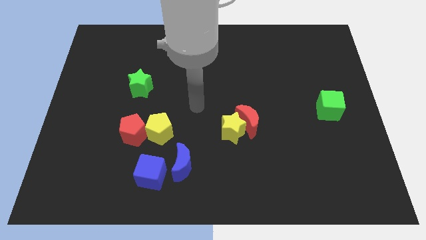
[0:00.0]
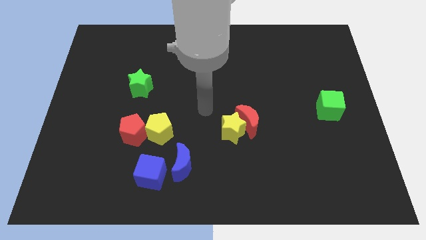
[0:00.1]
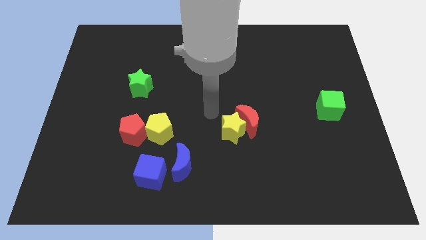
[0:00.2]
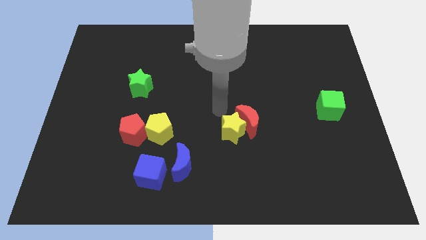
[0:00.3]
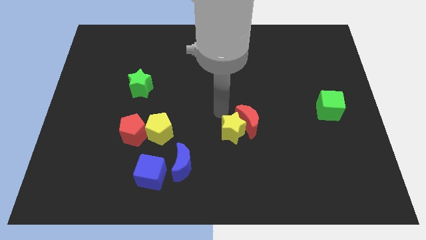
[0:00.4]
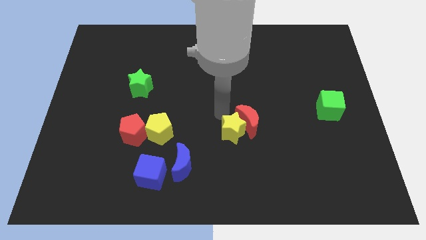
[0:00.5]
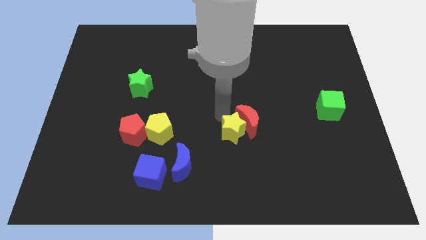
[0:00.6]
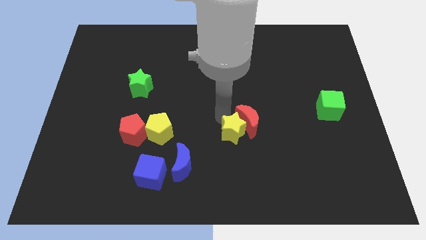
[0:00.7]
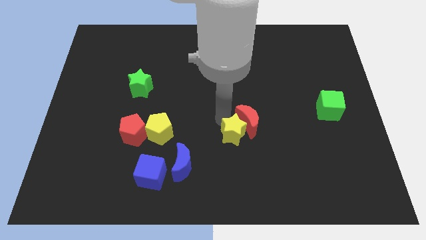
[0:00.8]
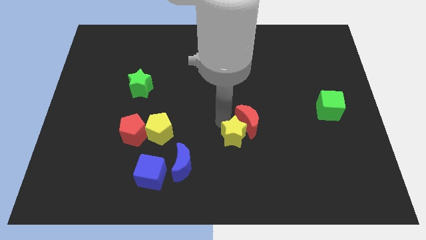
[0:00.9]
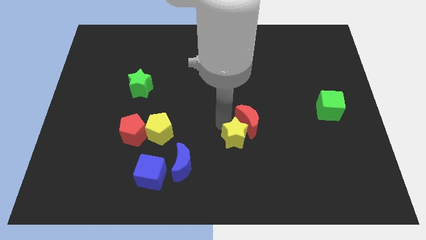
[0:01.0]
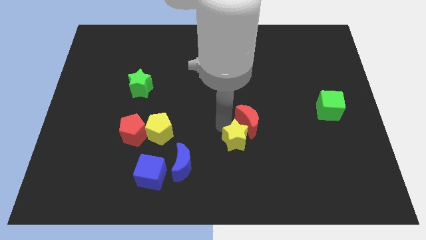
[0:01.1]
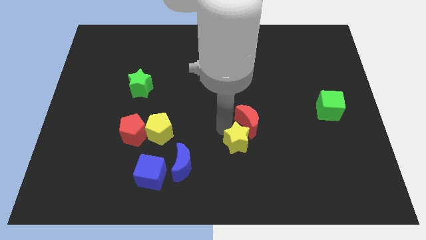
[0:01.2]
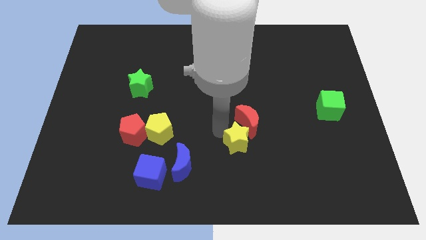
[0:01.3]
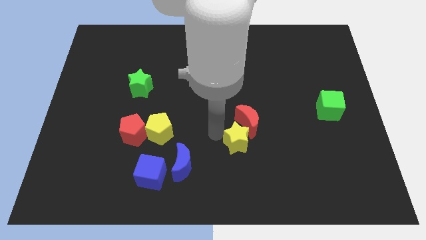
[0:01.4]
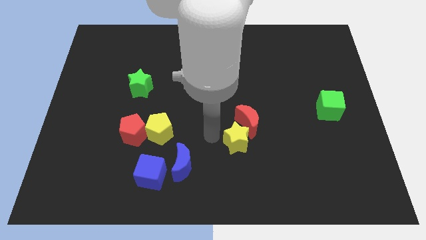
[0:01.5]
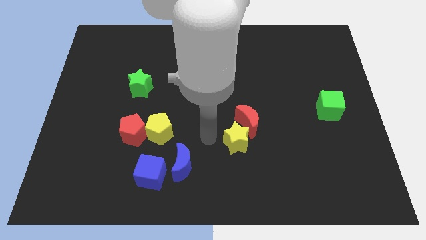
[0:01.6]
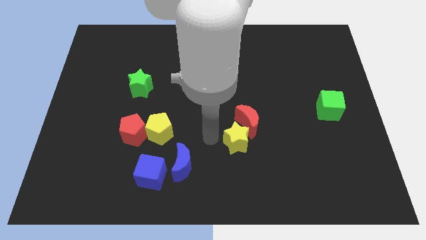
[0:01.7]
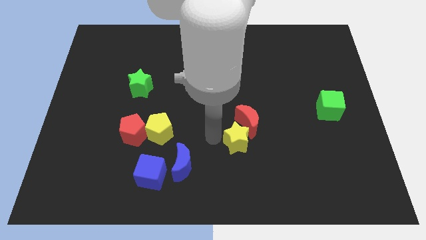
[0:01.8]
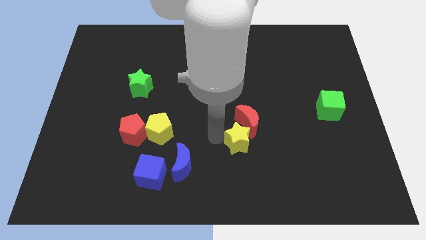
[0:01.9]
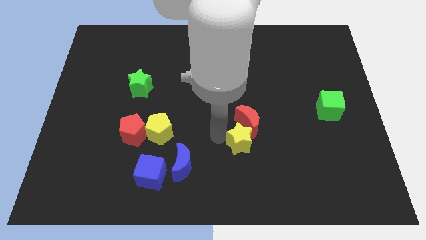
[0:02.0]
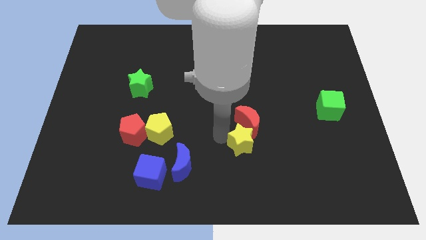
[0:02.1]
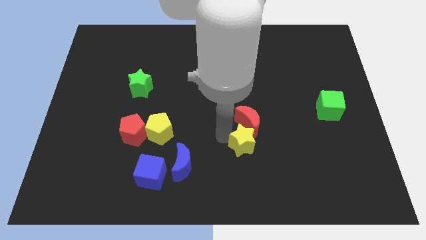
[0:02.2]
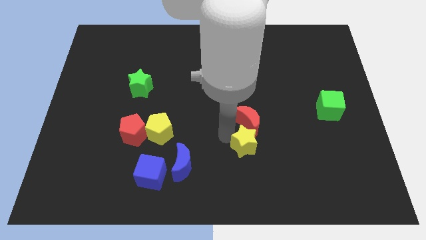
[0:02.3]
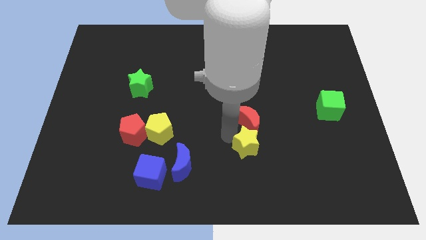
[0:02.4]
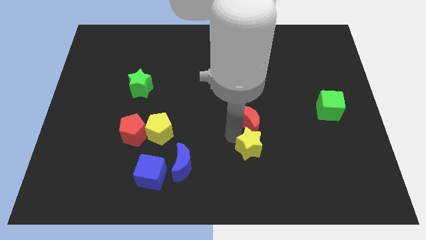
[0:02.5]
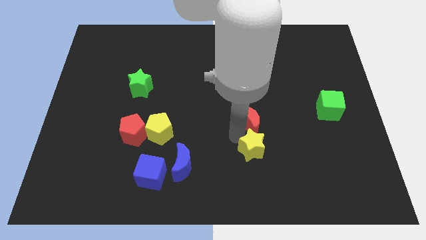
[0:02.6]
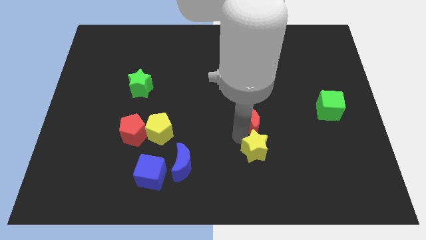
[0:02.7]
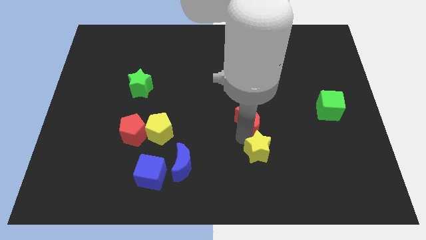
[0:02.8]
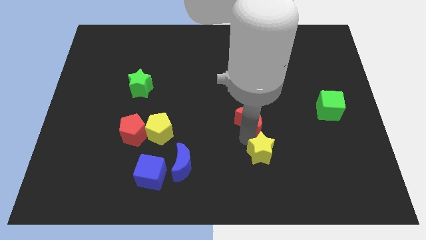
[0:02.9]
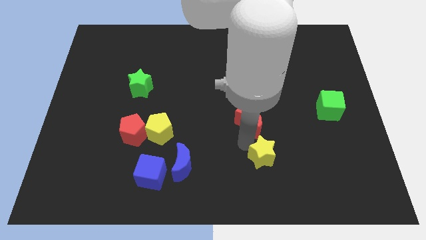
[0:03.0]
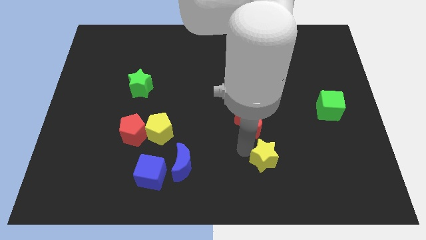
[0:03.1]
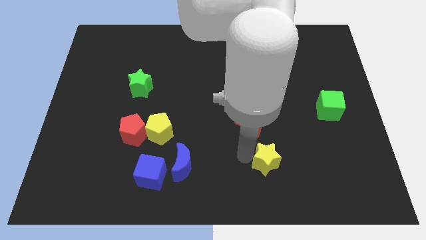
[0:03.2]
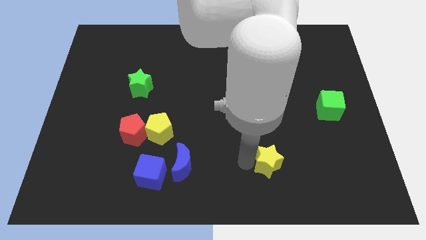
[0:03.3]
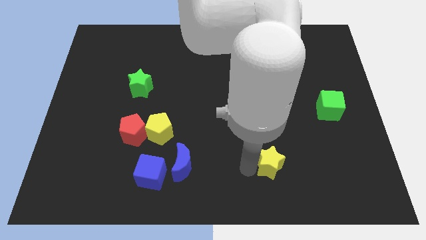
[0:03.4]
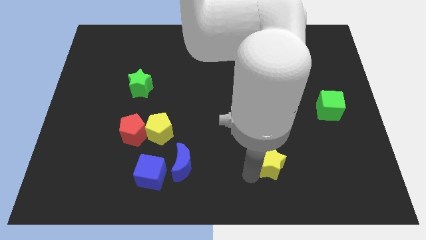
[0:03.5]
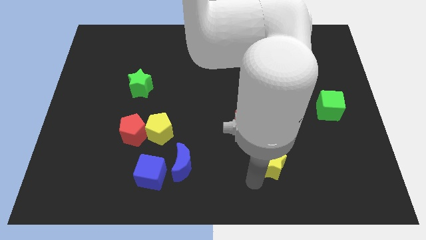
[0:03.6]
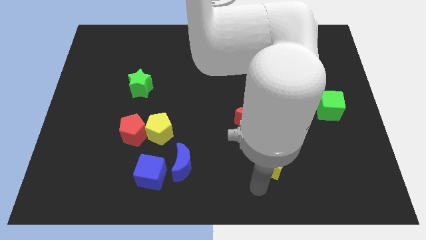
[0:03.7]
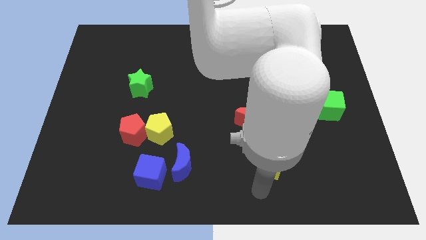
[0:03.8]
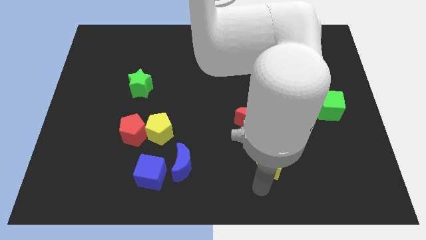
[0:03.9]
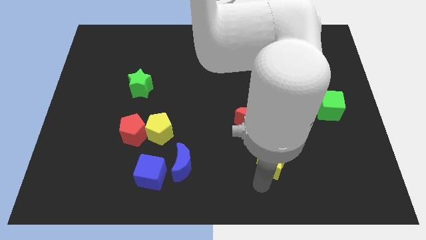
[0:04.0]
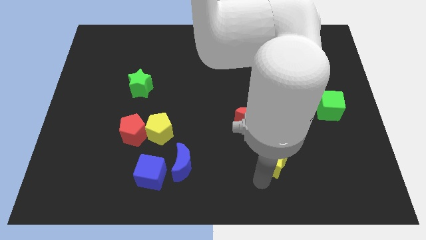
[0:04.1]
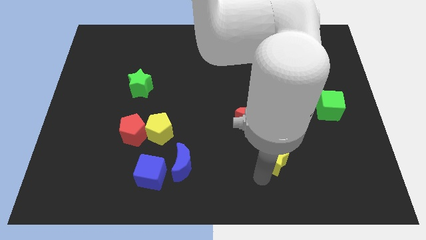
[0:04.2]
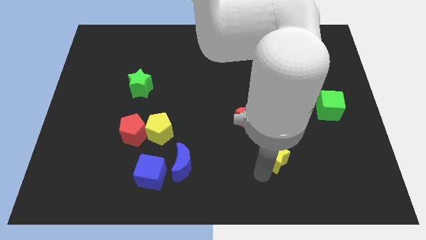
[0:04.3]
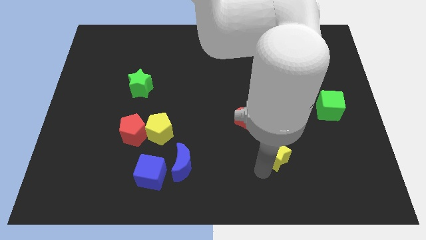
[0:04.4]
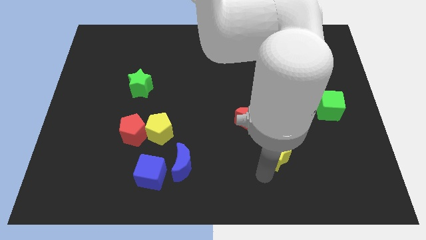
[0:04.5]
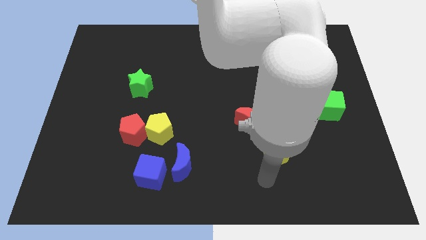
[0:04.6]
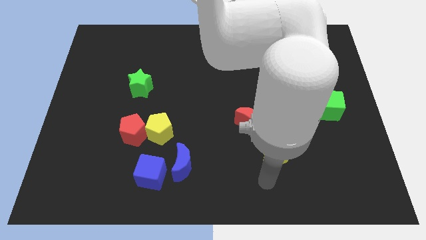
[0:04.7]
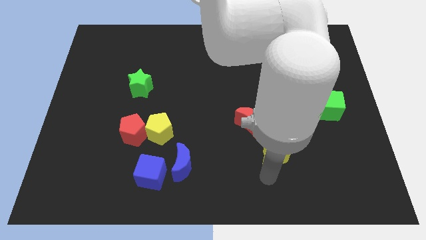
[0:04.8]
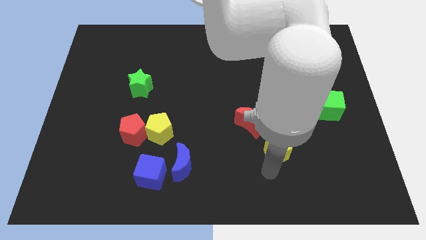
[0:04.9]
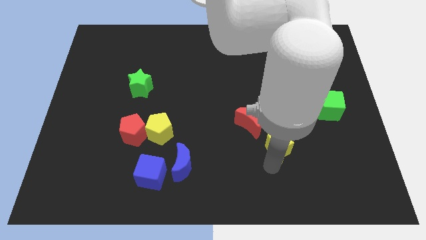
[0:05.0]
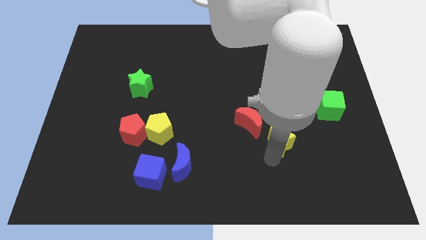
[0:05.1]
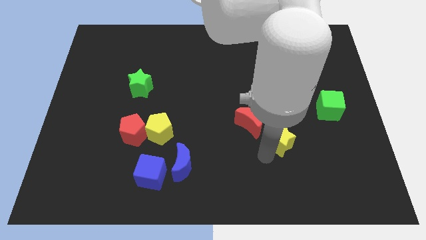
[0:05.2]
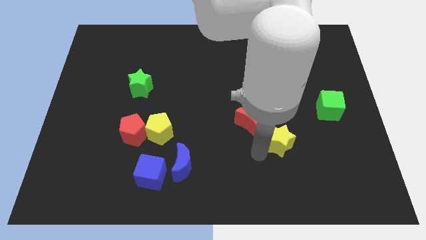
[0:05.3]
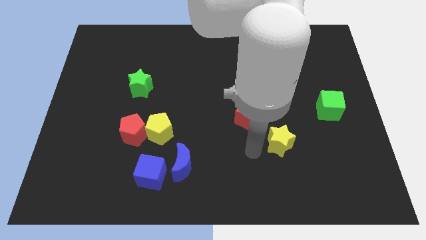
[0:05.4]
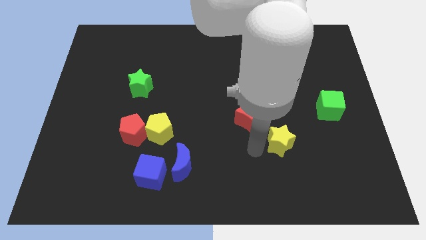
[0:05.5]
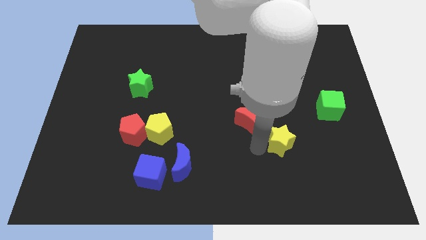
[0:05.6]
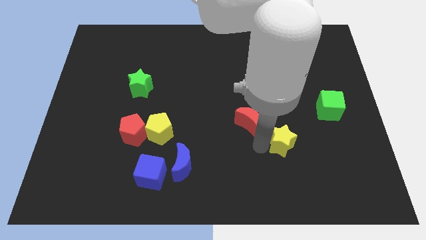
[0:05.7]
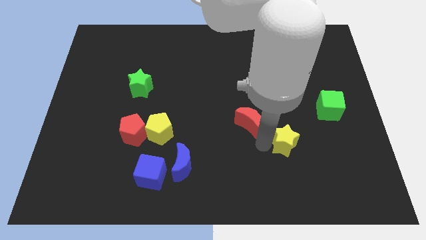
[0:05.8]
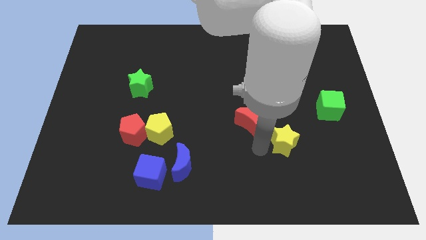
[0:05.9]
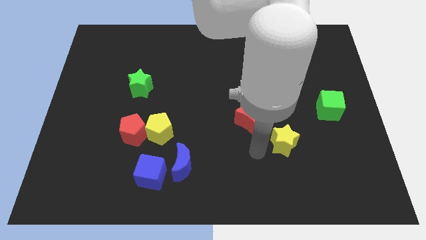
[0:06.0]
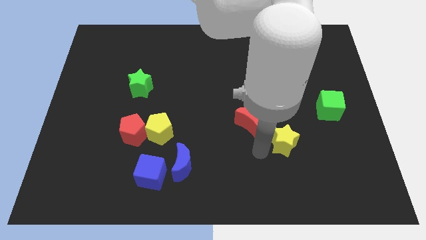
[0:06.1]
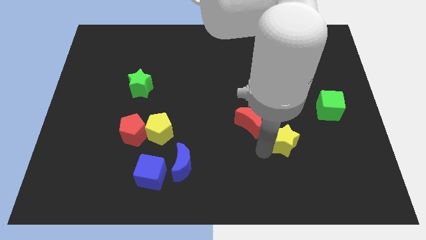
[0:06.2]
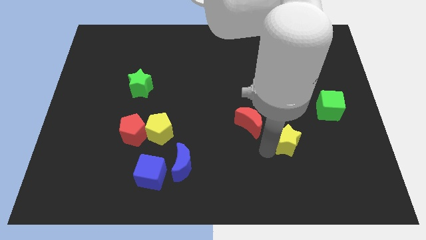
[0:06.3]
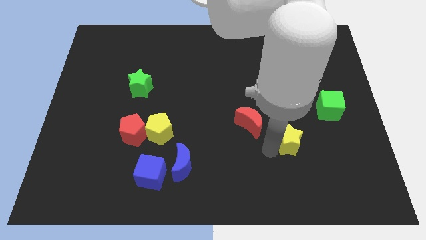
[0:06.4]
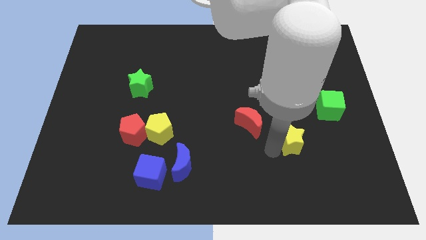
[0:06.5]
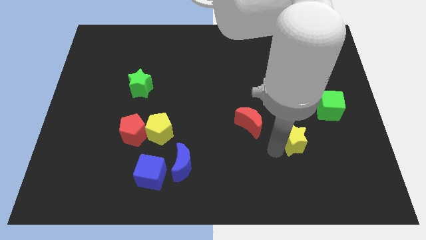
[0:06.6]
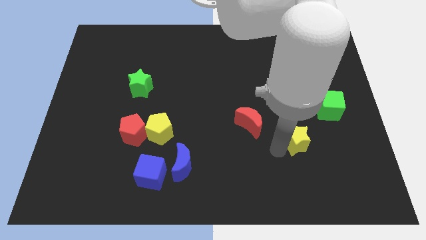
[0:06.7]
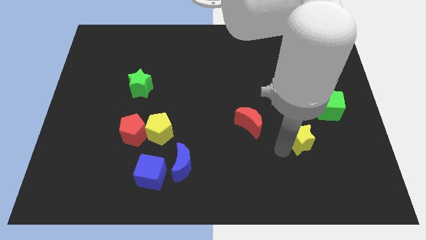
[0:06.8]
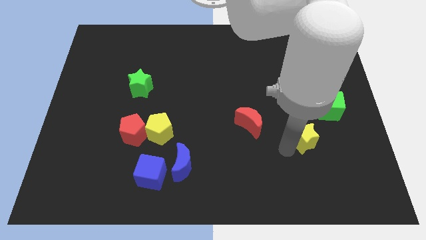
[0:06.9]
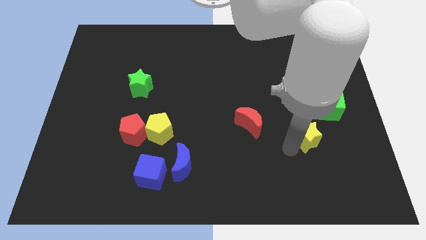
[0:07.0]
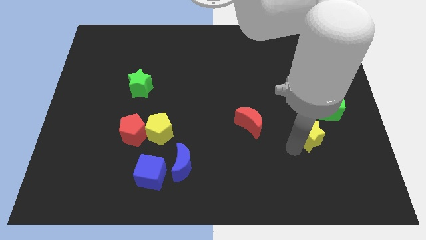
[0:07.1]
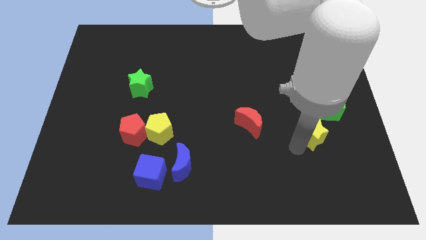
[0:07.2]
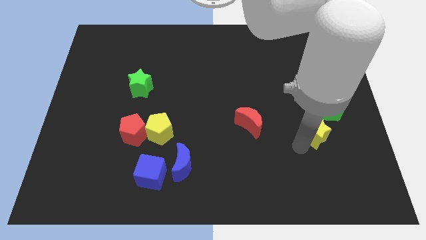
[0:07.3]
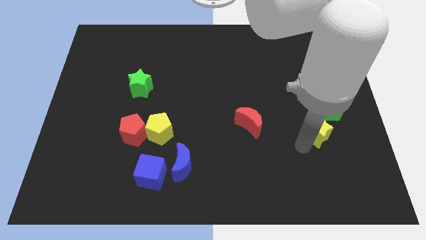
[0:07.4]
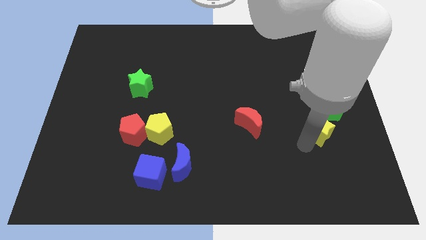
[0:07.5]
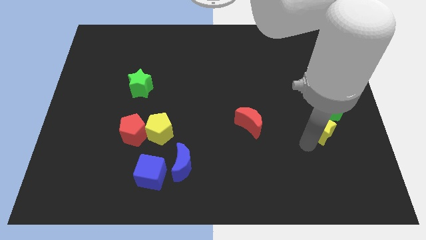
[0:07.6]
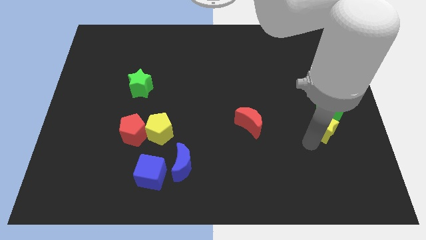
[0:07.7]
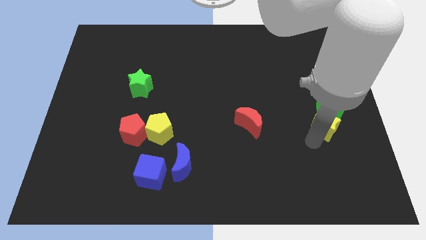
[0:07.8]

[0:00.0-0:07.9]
put the yellow star towards the green cube
